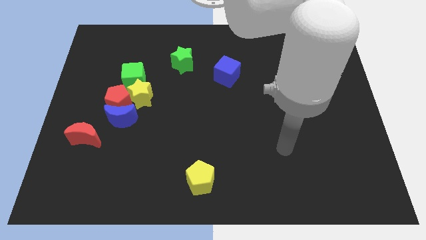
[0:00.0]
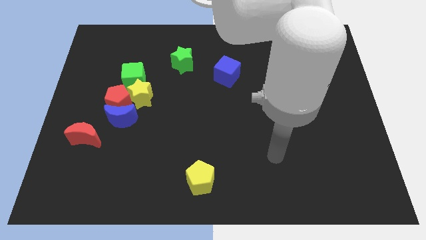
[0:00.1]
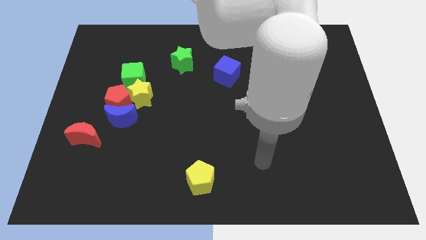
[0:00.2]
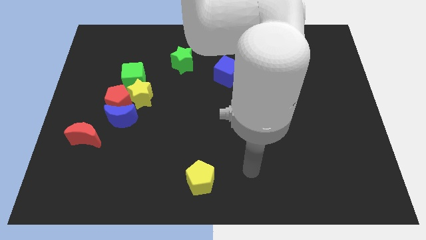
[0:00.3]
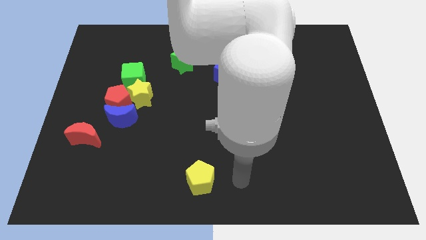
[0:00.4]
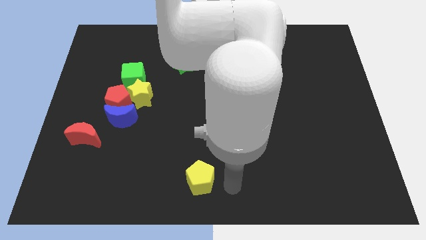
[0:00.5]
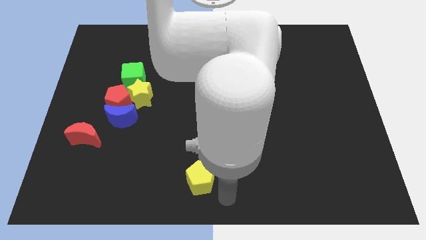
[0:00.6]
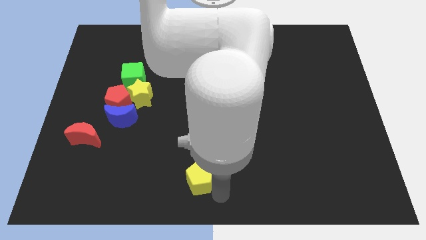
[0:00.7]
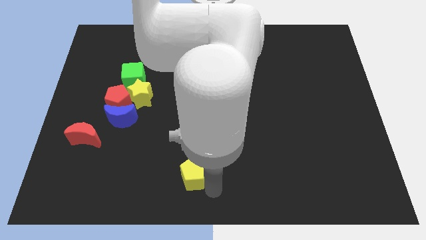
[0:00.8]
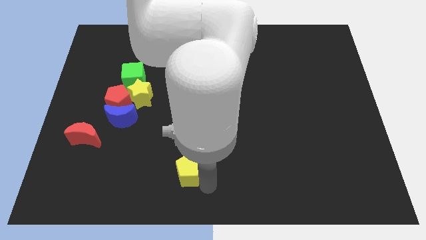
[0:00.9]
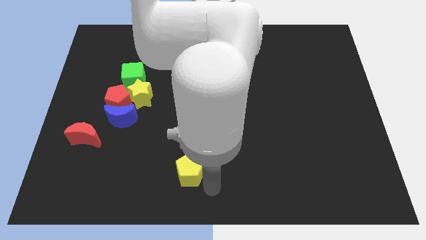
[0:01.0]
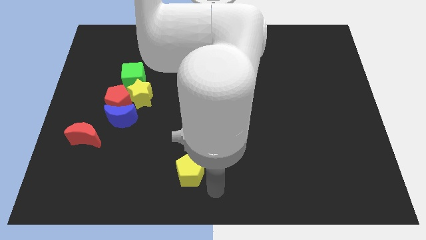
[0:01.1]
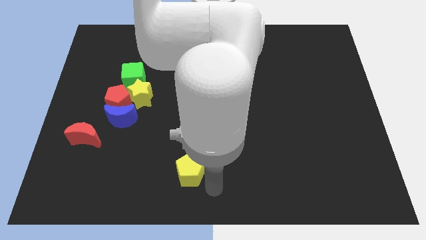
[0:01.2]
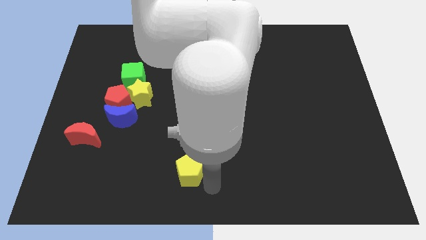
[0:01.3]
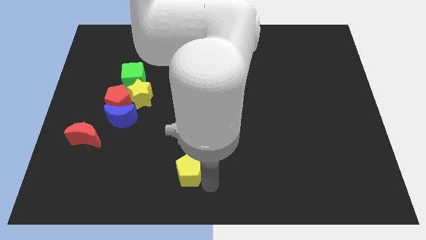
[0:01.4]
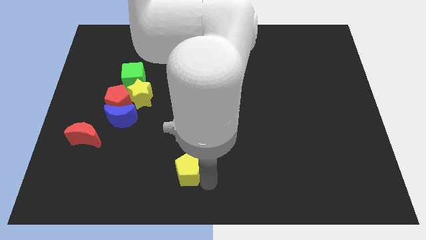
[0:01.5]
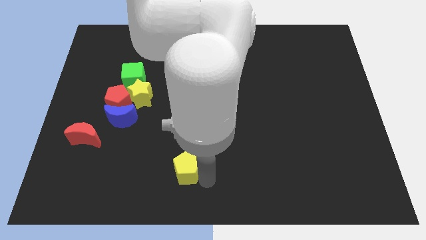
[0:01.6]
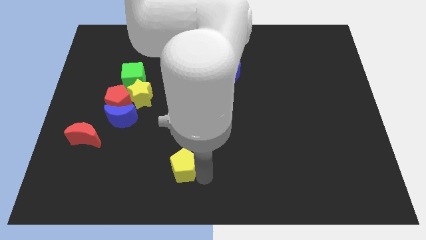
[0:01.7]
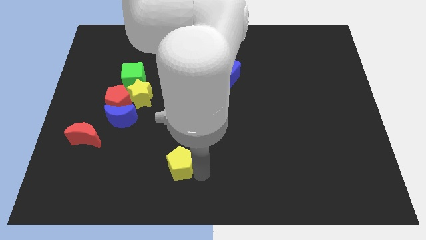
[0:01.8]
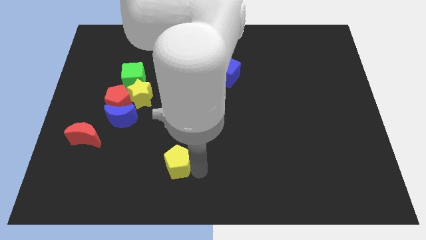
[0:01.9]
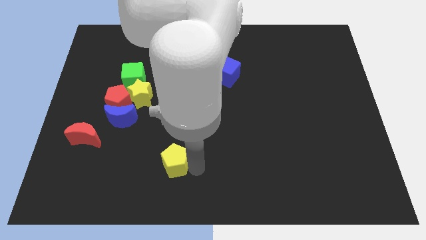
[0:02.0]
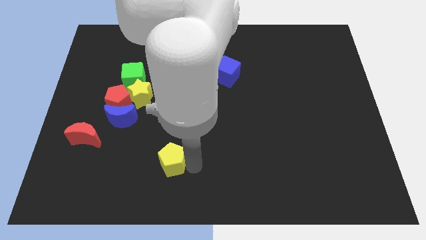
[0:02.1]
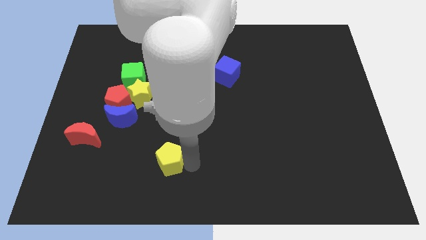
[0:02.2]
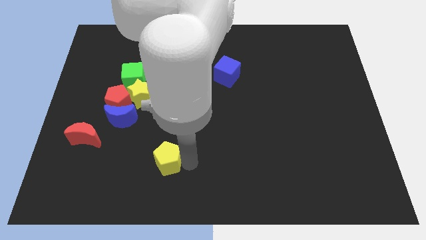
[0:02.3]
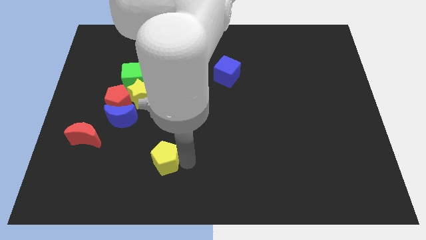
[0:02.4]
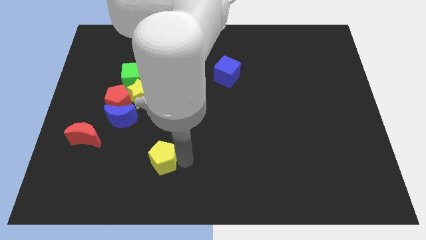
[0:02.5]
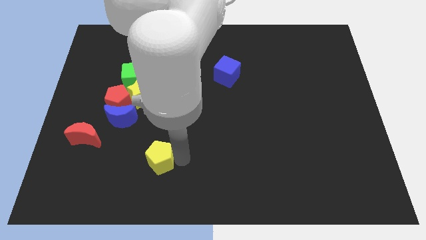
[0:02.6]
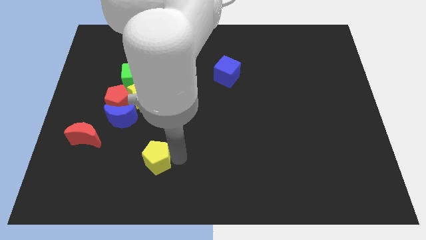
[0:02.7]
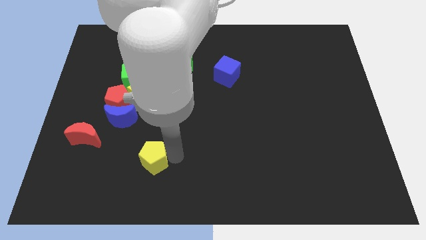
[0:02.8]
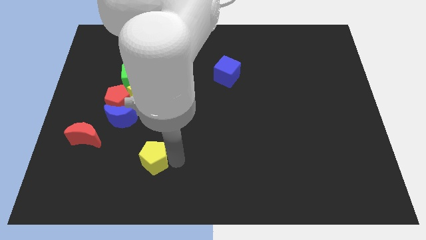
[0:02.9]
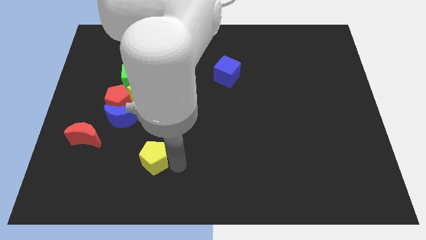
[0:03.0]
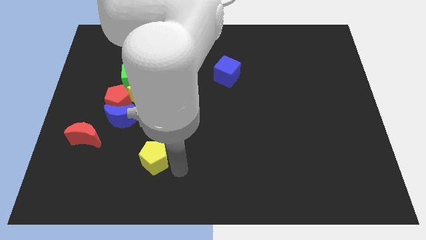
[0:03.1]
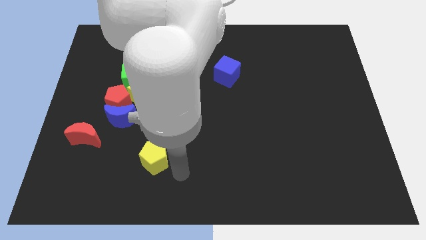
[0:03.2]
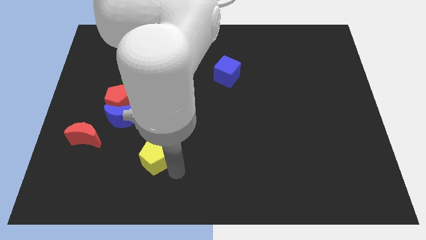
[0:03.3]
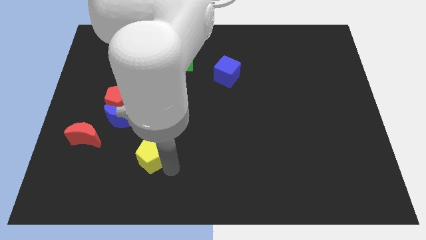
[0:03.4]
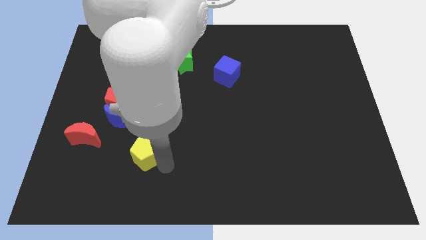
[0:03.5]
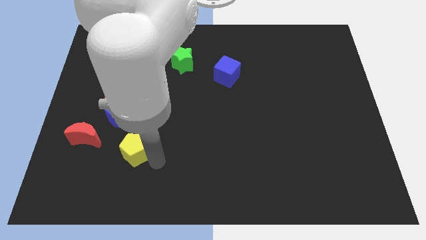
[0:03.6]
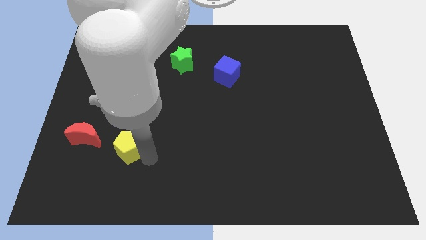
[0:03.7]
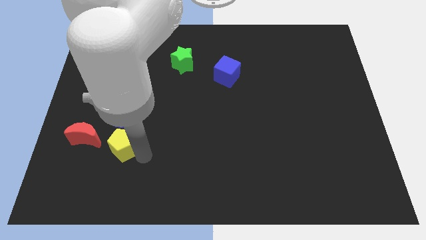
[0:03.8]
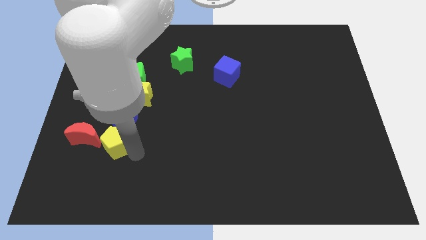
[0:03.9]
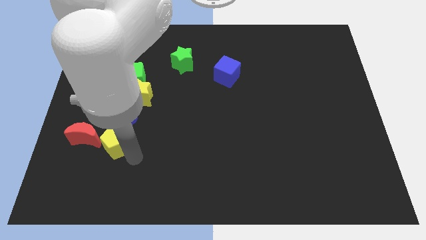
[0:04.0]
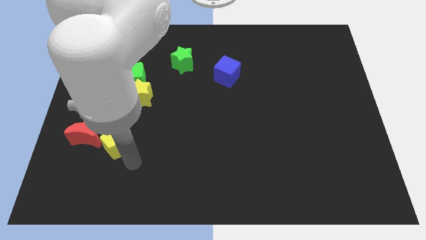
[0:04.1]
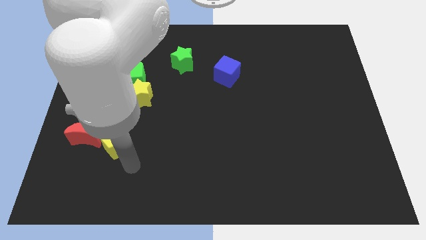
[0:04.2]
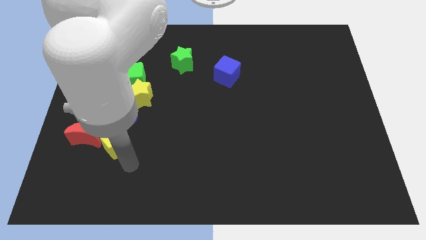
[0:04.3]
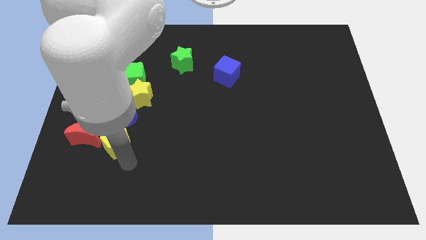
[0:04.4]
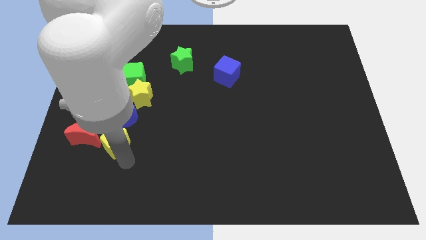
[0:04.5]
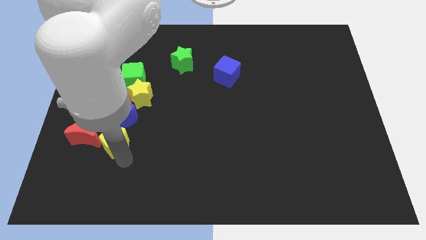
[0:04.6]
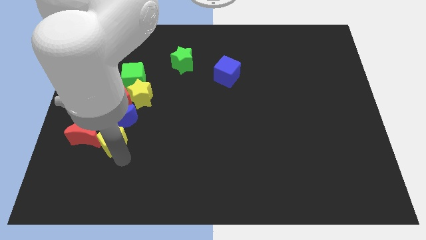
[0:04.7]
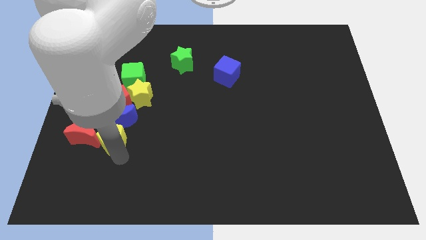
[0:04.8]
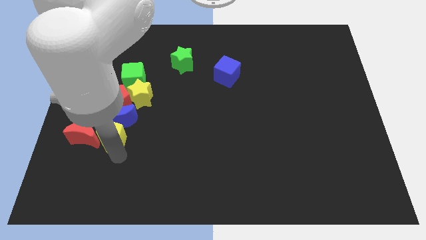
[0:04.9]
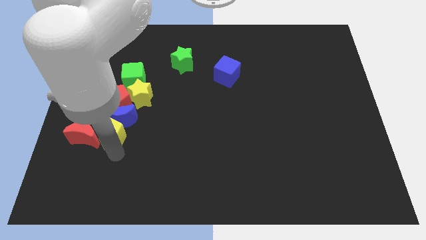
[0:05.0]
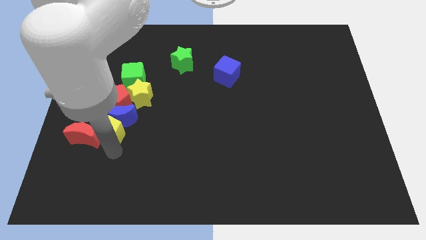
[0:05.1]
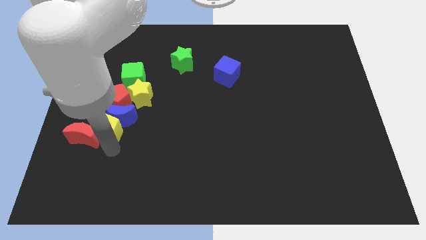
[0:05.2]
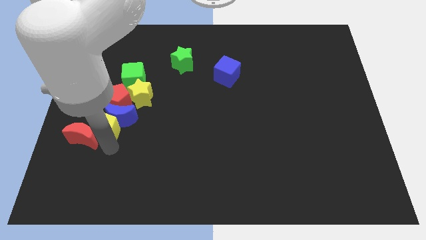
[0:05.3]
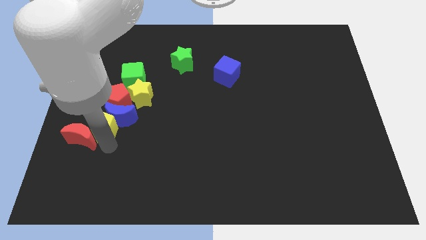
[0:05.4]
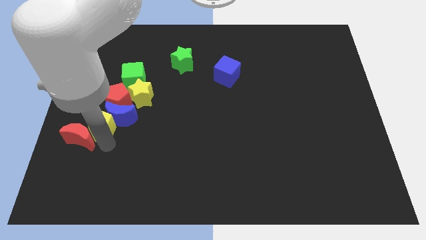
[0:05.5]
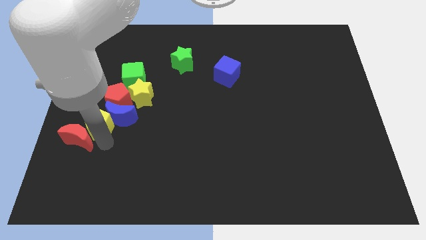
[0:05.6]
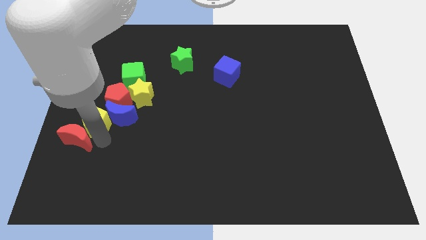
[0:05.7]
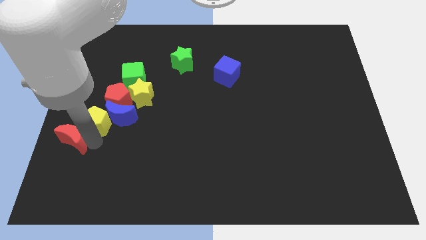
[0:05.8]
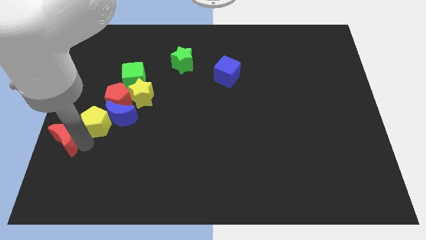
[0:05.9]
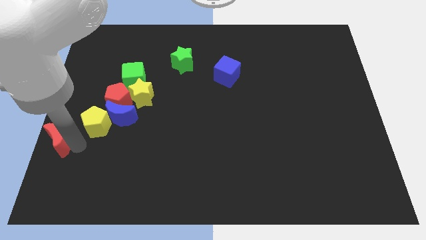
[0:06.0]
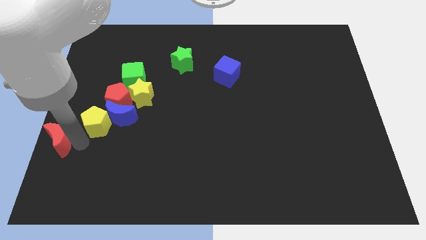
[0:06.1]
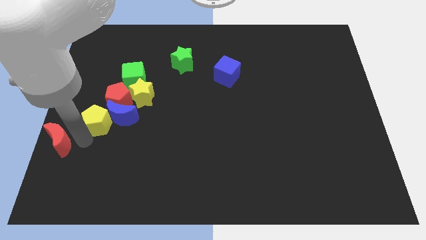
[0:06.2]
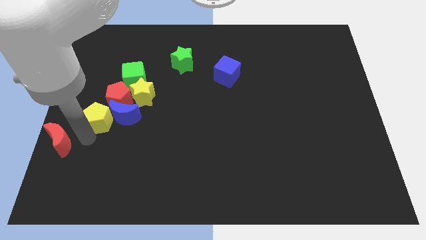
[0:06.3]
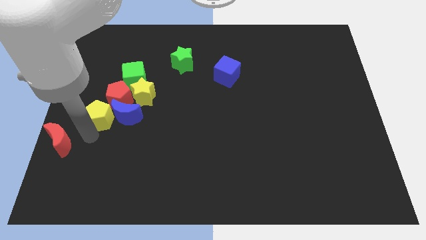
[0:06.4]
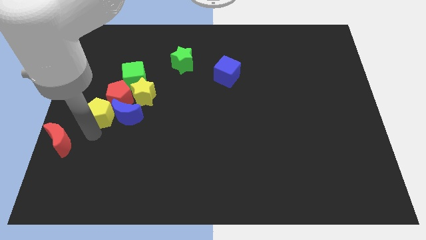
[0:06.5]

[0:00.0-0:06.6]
push the yellow pentagon to the red pentagon

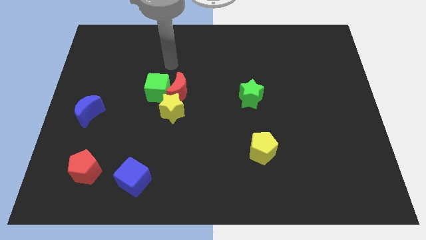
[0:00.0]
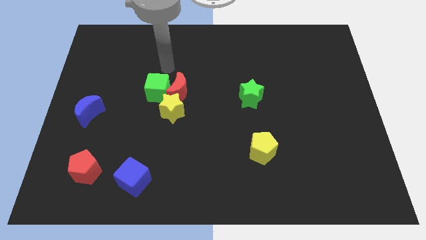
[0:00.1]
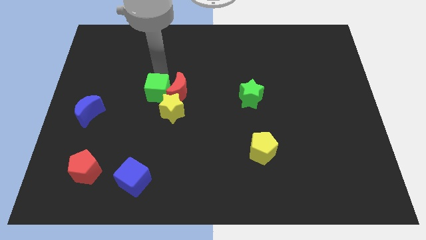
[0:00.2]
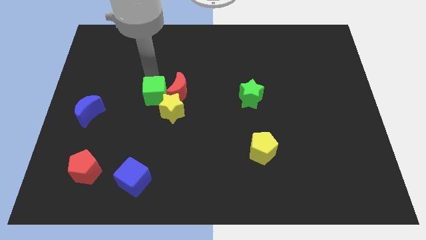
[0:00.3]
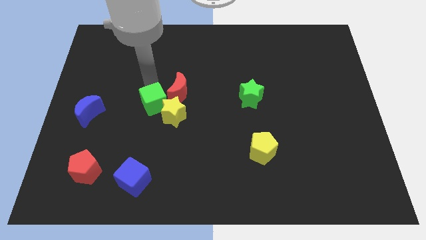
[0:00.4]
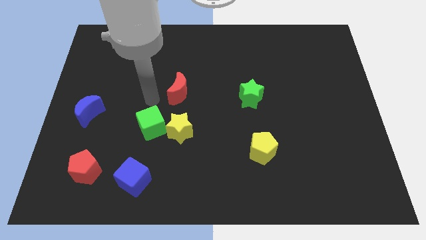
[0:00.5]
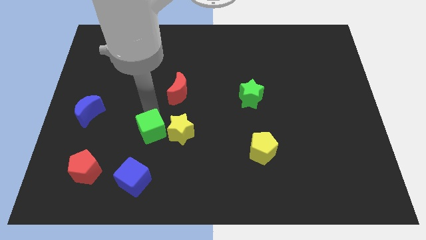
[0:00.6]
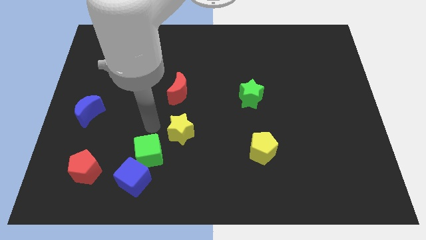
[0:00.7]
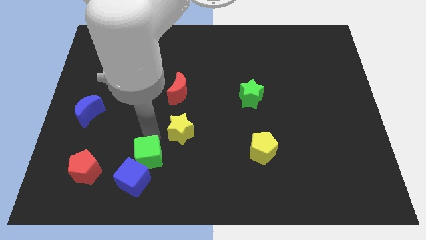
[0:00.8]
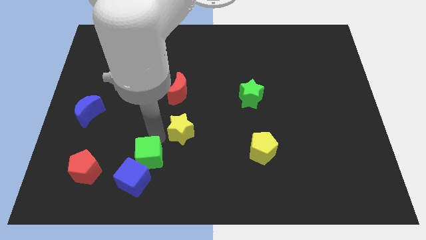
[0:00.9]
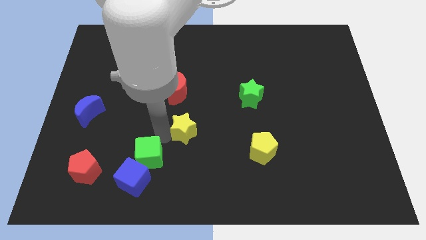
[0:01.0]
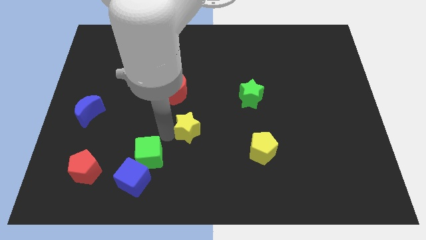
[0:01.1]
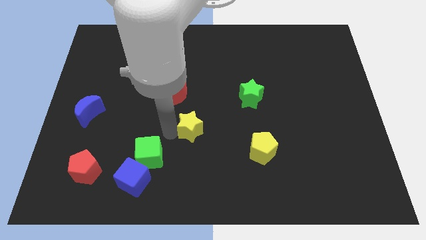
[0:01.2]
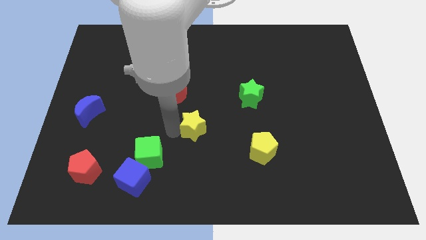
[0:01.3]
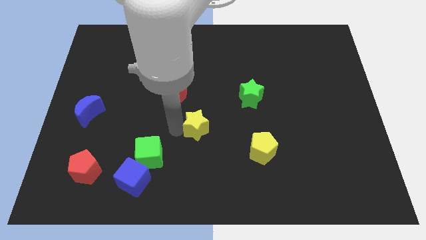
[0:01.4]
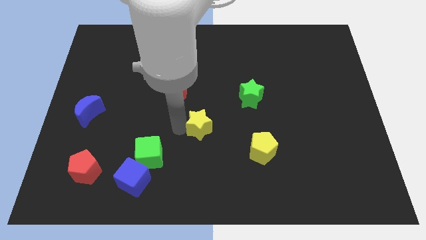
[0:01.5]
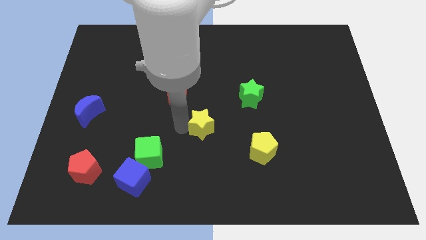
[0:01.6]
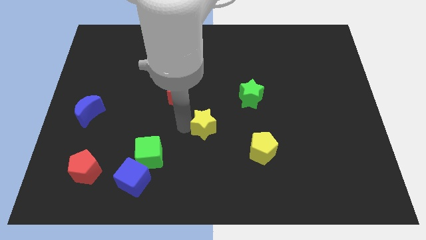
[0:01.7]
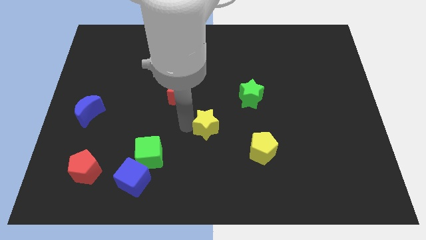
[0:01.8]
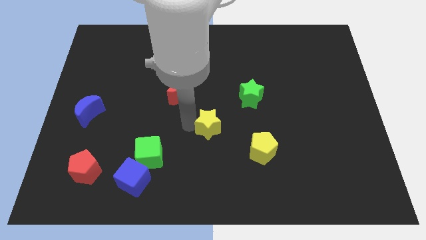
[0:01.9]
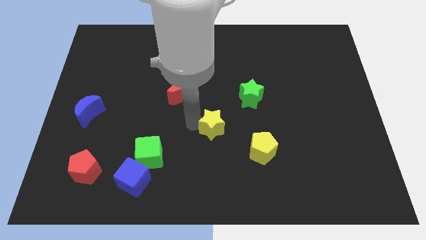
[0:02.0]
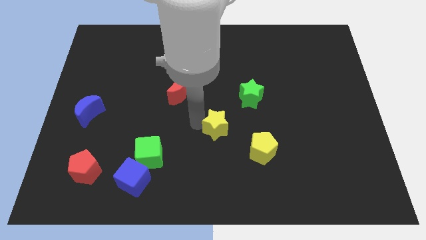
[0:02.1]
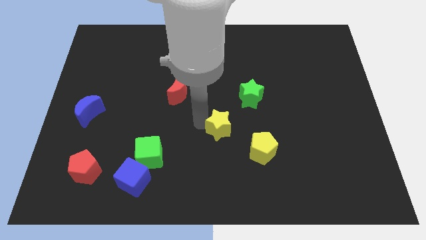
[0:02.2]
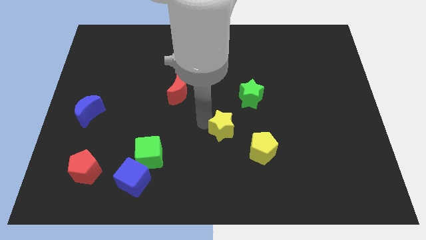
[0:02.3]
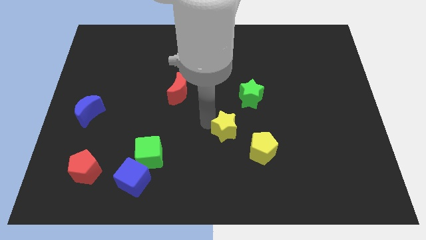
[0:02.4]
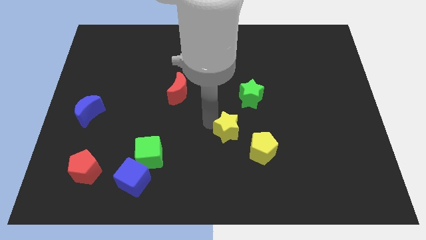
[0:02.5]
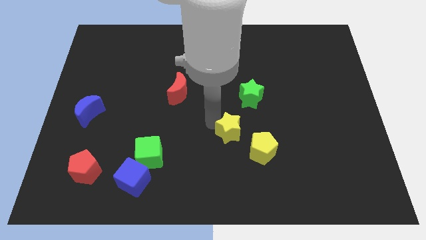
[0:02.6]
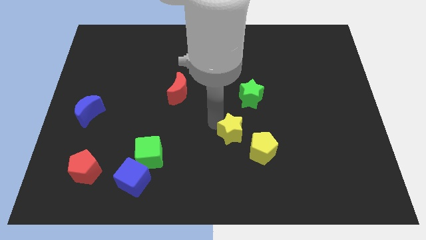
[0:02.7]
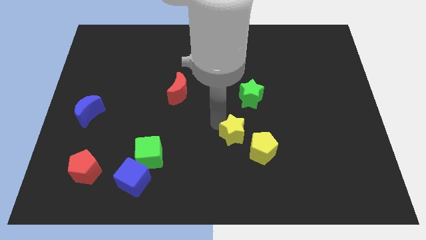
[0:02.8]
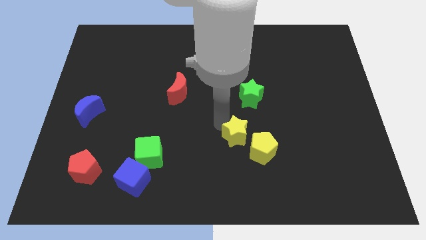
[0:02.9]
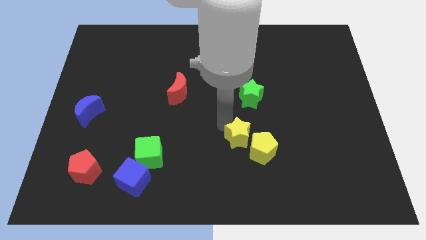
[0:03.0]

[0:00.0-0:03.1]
slide the yellow star towards the yellow pentagon
